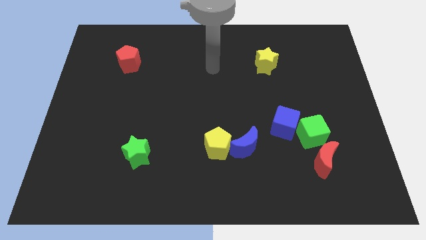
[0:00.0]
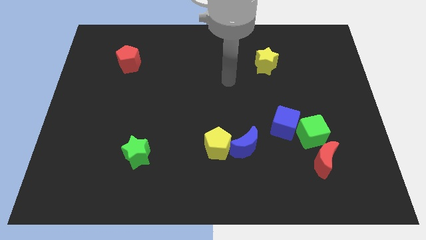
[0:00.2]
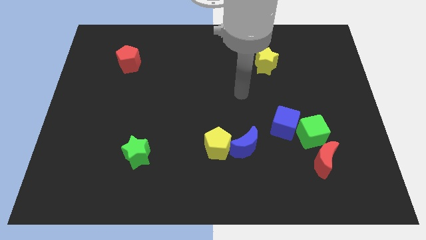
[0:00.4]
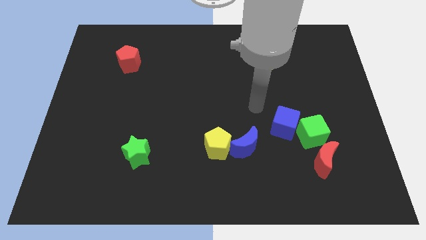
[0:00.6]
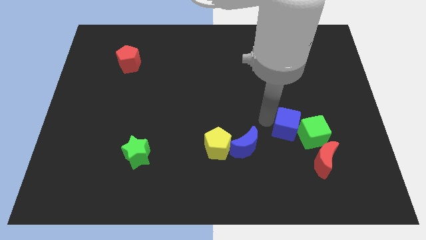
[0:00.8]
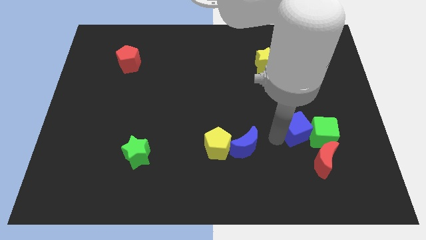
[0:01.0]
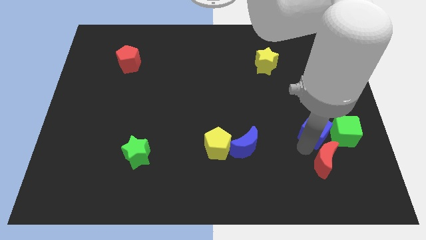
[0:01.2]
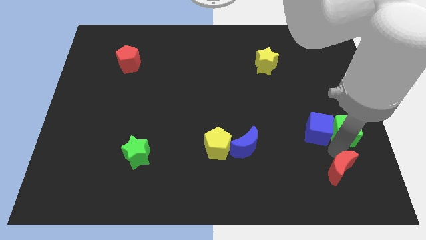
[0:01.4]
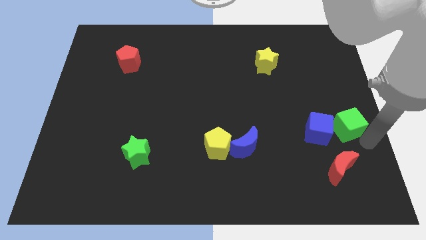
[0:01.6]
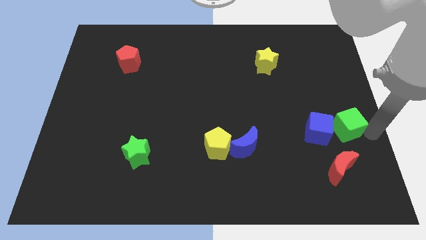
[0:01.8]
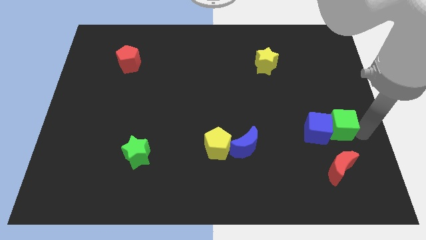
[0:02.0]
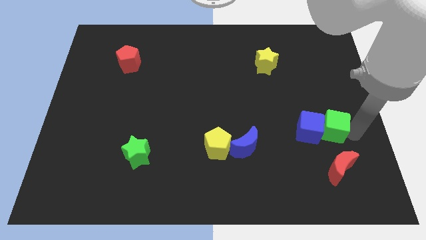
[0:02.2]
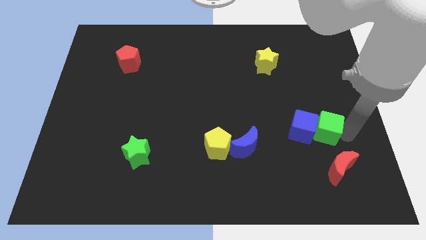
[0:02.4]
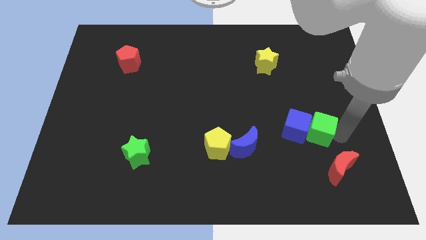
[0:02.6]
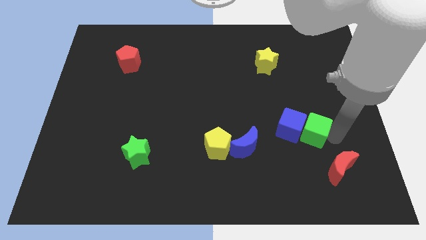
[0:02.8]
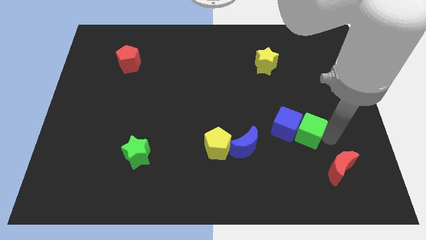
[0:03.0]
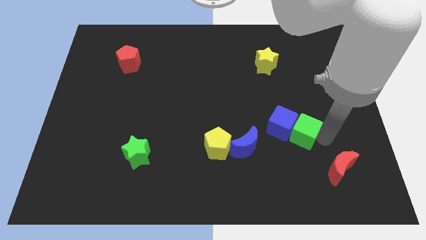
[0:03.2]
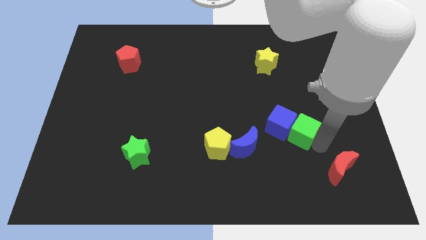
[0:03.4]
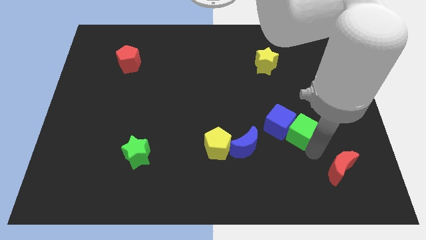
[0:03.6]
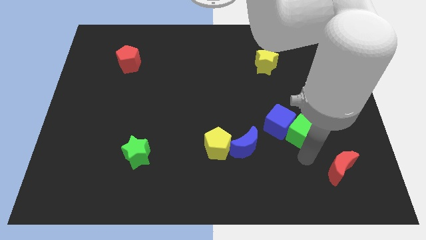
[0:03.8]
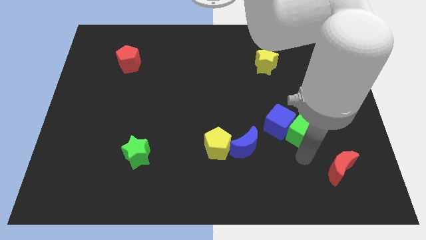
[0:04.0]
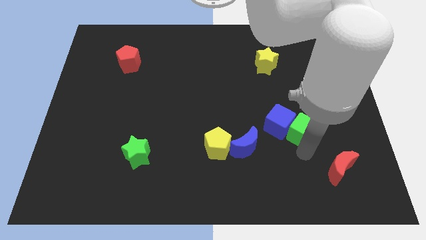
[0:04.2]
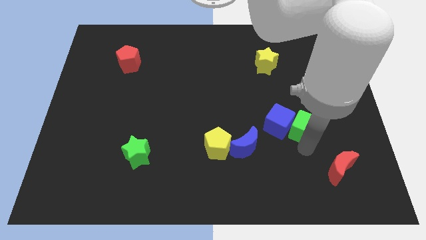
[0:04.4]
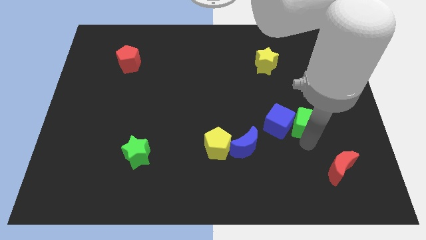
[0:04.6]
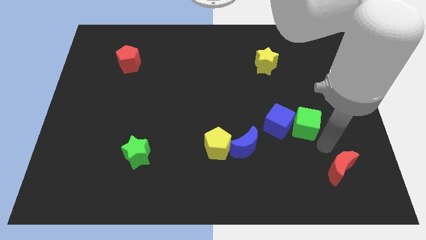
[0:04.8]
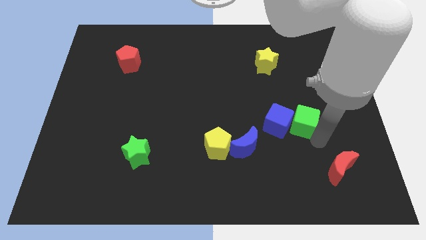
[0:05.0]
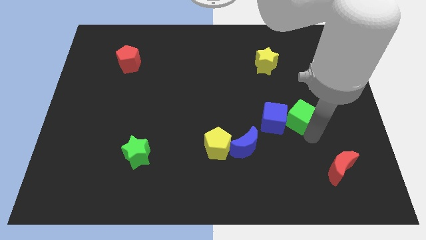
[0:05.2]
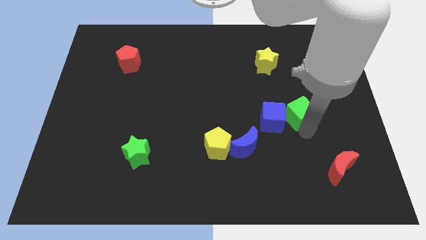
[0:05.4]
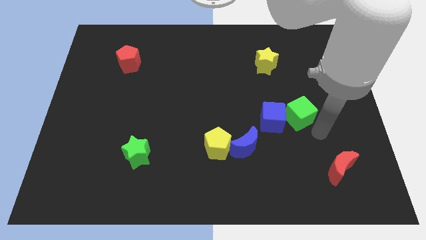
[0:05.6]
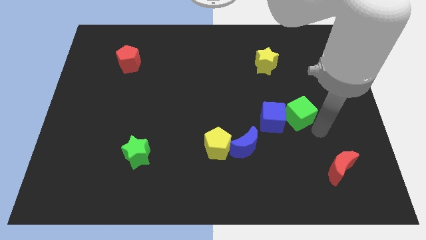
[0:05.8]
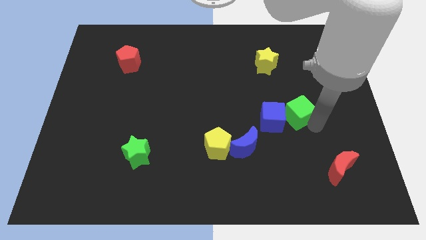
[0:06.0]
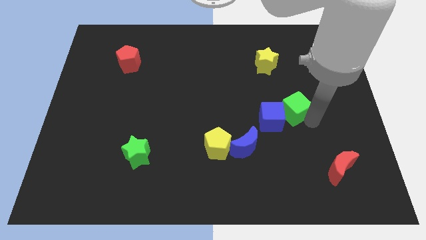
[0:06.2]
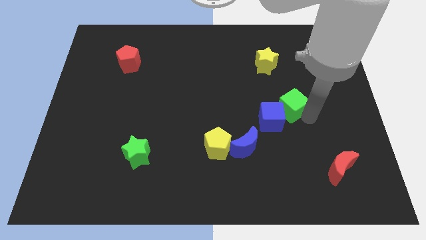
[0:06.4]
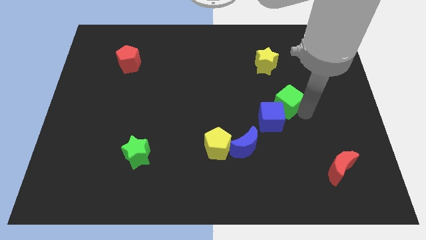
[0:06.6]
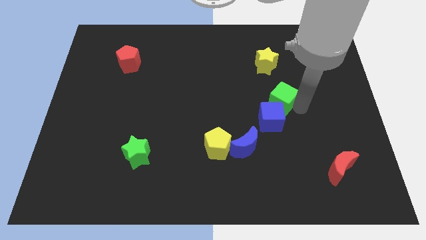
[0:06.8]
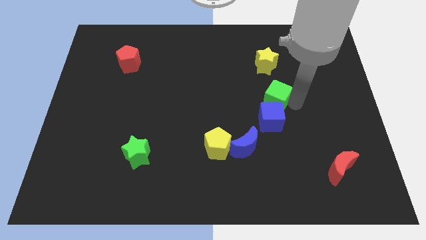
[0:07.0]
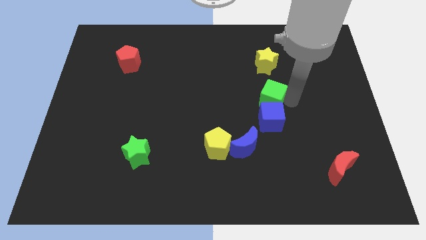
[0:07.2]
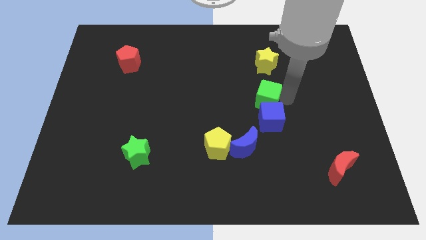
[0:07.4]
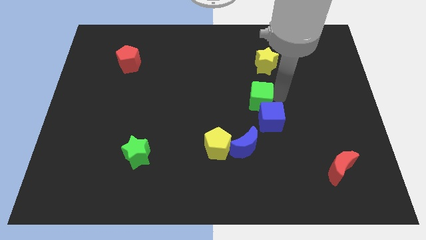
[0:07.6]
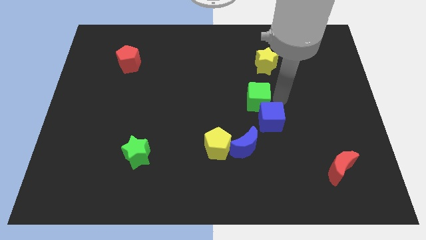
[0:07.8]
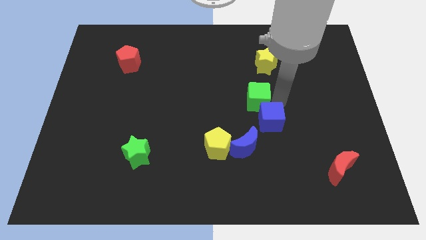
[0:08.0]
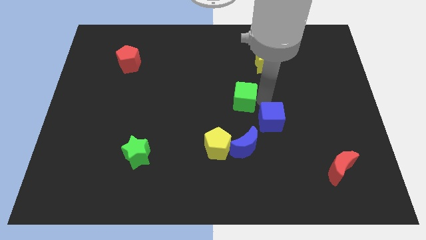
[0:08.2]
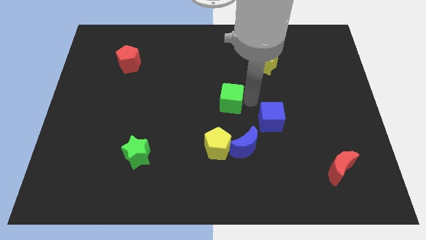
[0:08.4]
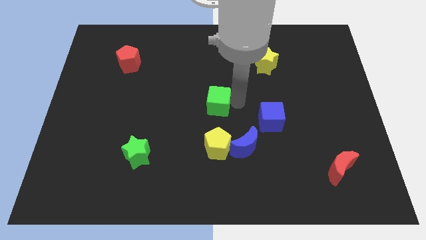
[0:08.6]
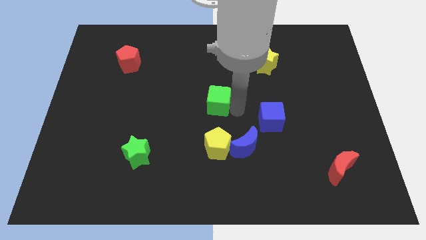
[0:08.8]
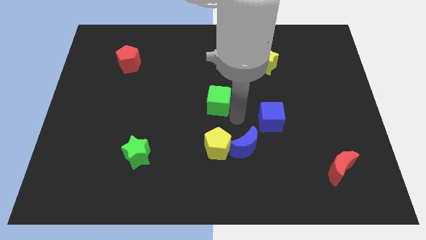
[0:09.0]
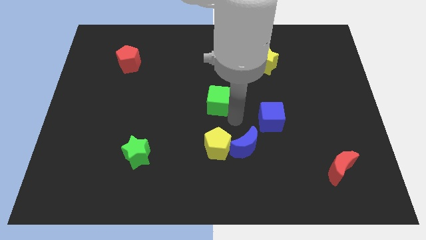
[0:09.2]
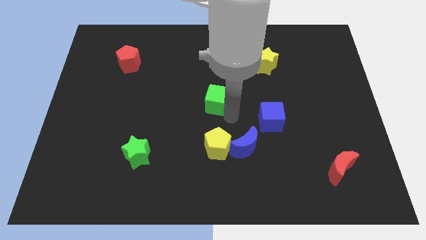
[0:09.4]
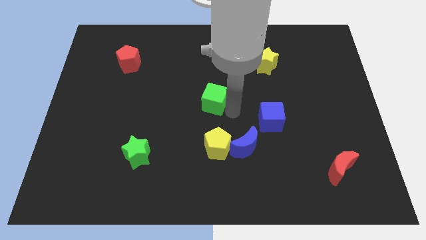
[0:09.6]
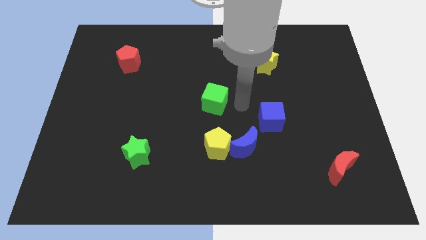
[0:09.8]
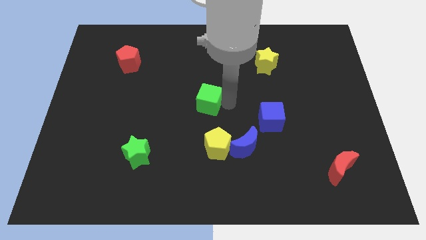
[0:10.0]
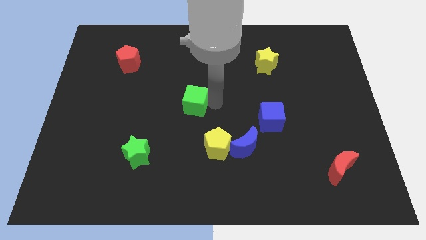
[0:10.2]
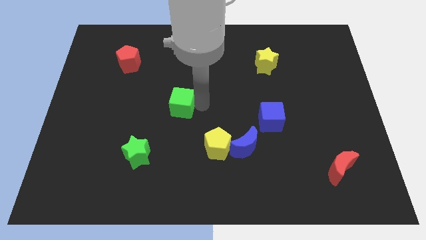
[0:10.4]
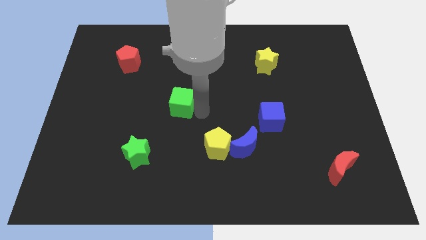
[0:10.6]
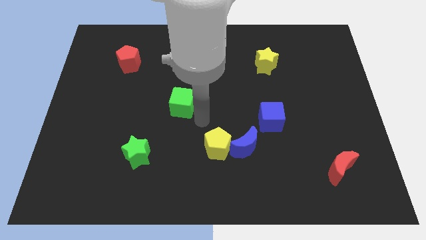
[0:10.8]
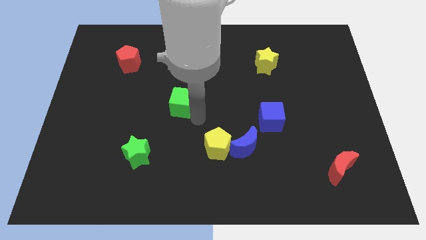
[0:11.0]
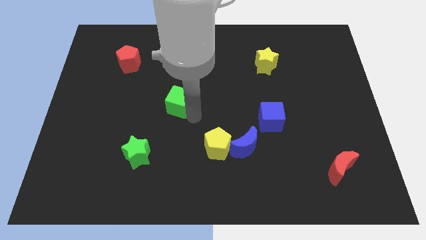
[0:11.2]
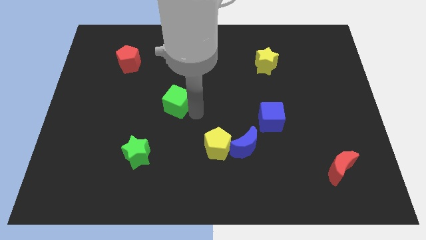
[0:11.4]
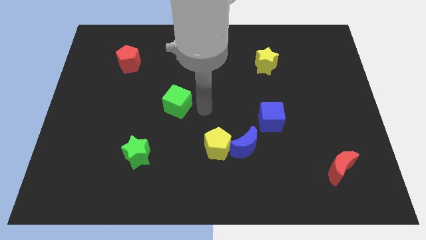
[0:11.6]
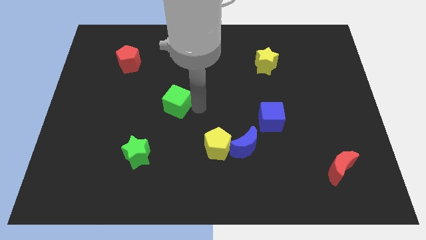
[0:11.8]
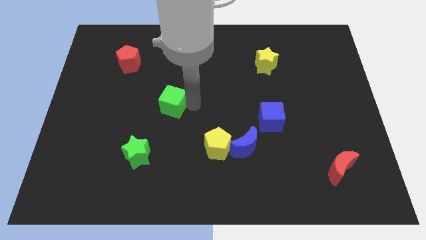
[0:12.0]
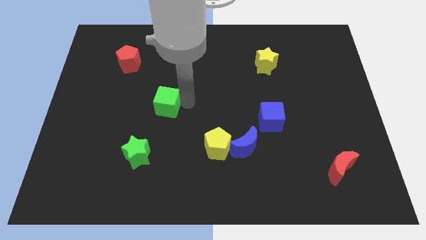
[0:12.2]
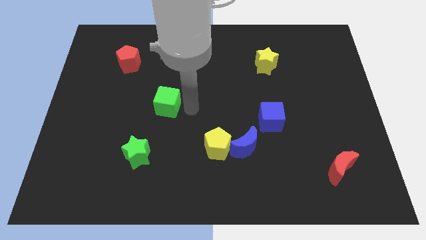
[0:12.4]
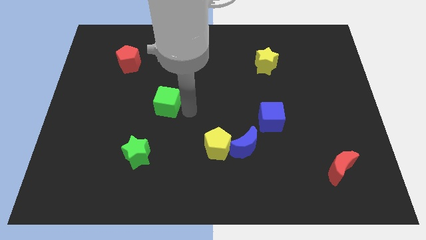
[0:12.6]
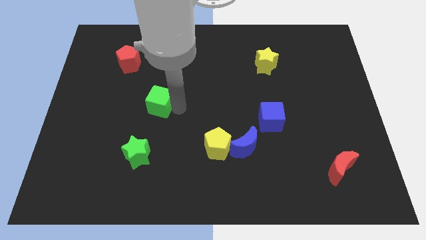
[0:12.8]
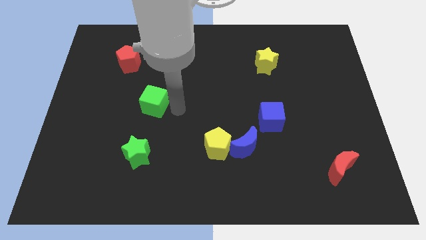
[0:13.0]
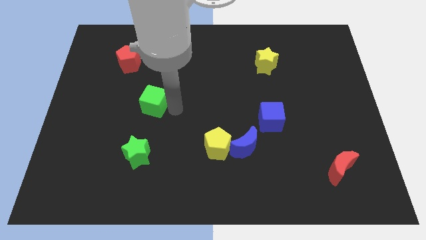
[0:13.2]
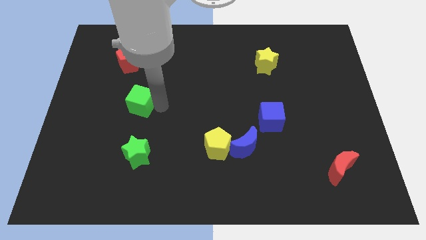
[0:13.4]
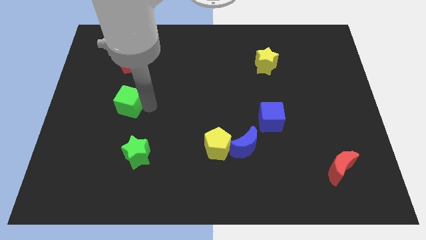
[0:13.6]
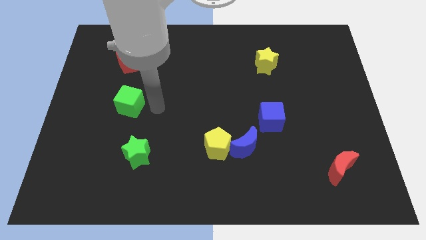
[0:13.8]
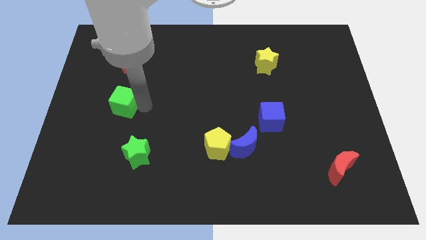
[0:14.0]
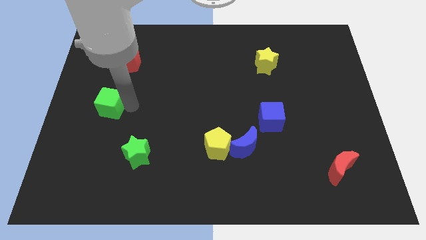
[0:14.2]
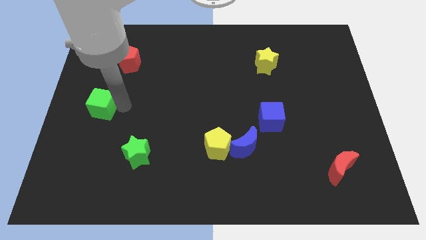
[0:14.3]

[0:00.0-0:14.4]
put the green cube to the center left

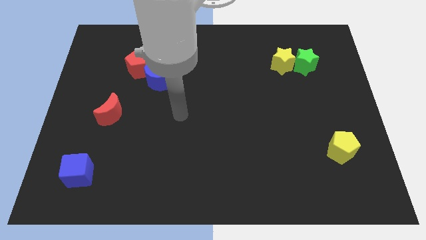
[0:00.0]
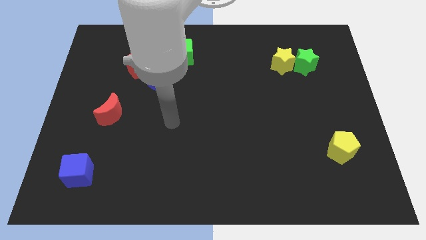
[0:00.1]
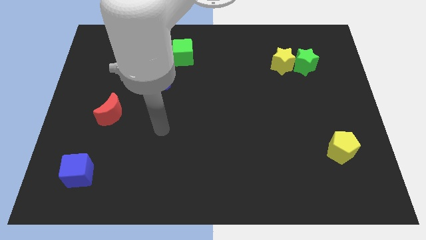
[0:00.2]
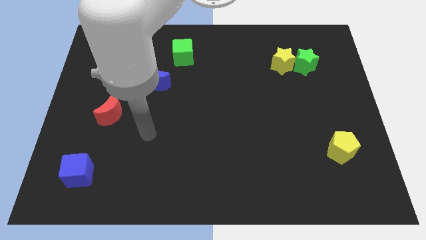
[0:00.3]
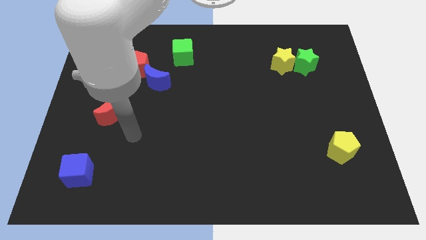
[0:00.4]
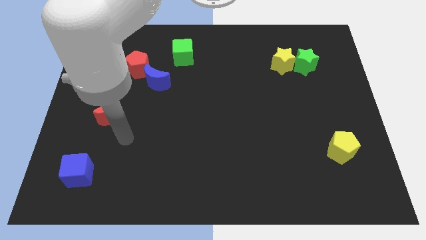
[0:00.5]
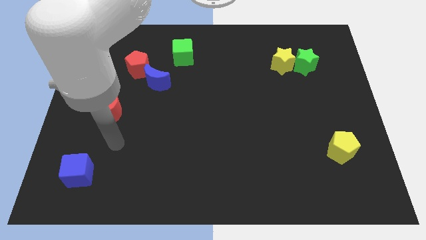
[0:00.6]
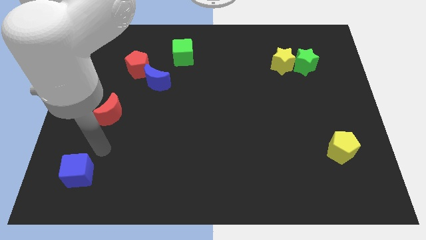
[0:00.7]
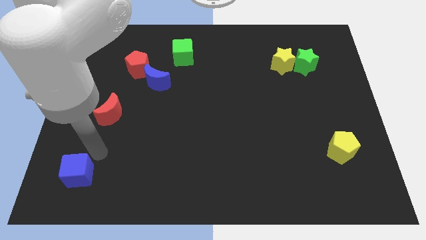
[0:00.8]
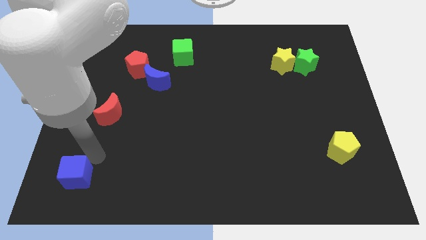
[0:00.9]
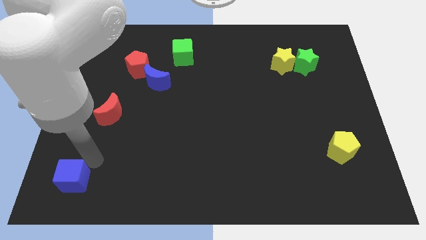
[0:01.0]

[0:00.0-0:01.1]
push the blue cube to the bottom left corner
